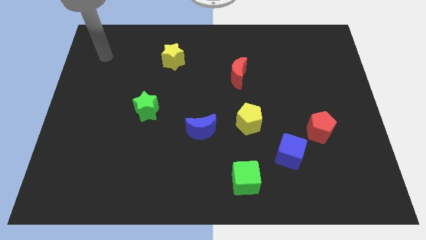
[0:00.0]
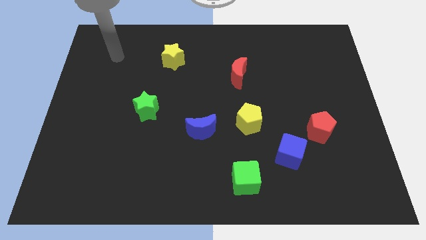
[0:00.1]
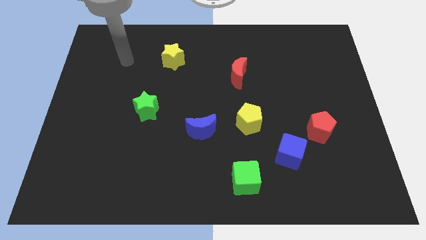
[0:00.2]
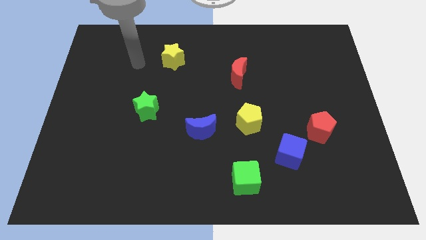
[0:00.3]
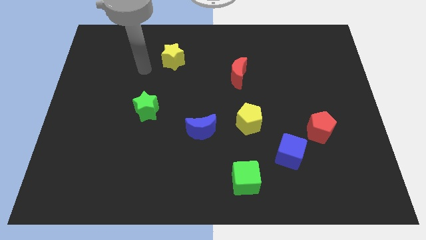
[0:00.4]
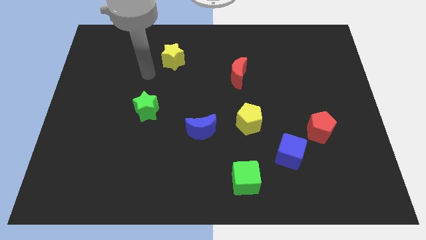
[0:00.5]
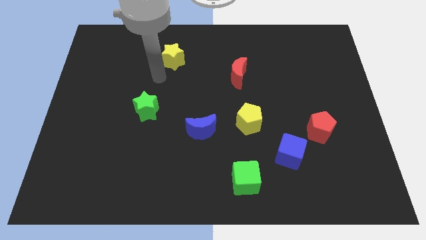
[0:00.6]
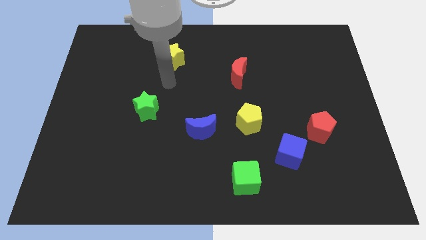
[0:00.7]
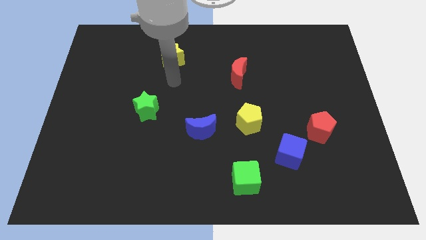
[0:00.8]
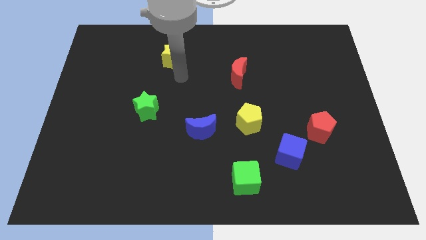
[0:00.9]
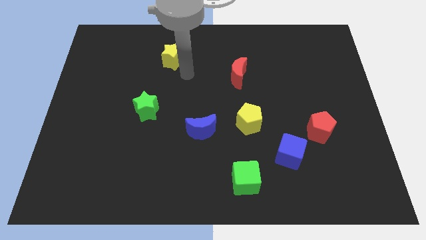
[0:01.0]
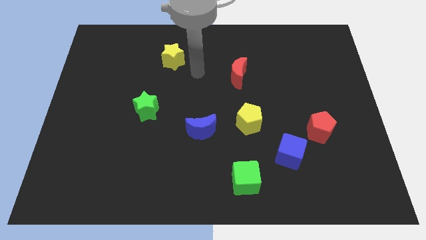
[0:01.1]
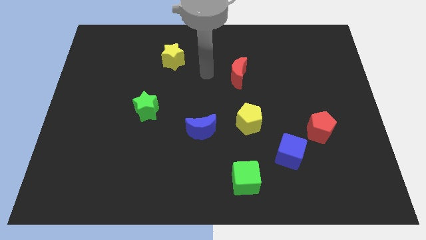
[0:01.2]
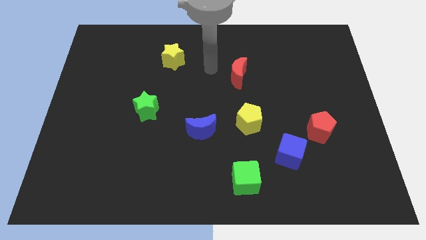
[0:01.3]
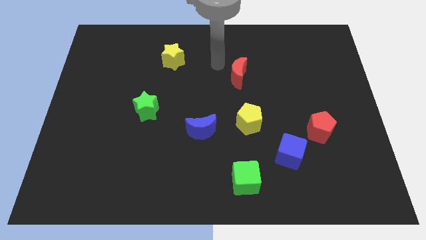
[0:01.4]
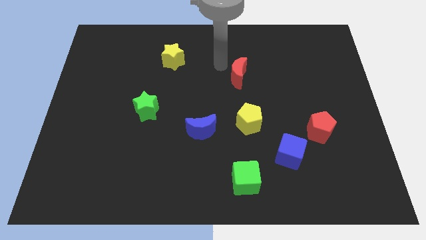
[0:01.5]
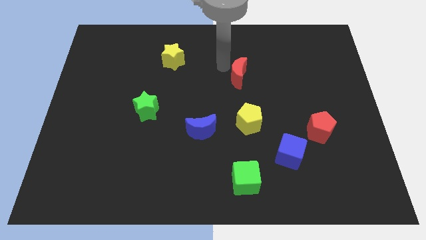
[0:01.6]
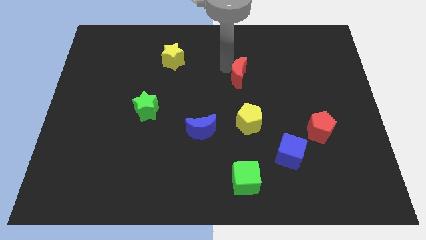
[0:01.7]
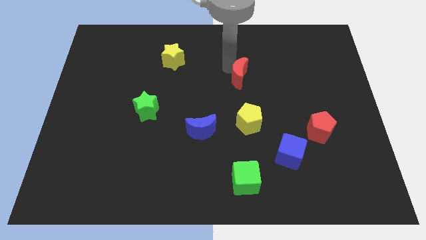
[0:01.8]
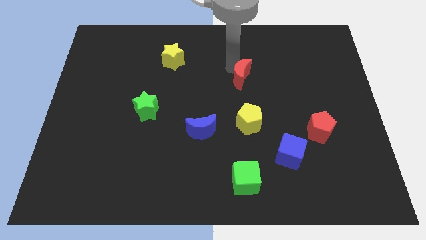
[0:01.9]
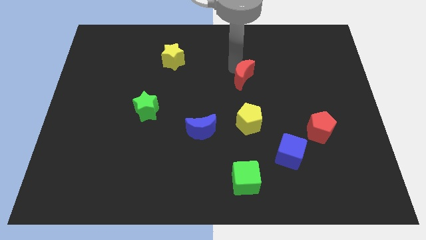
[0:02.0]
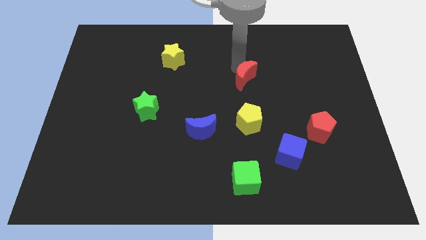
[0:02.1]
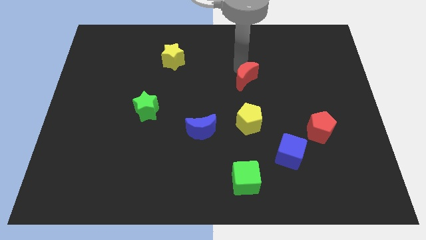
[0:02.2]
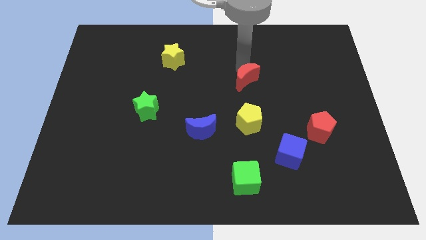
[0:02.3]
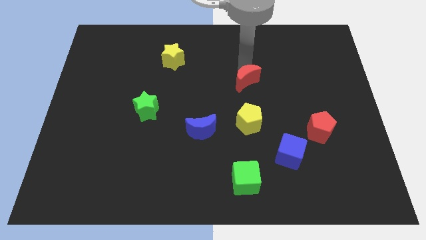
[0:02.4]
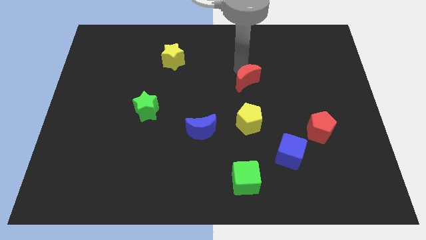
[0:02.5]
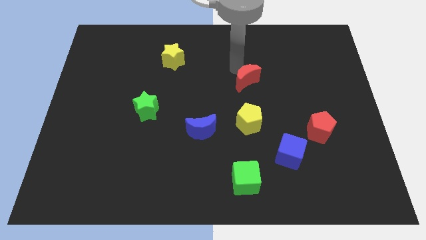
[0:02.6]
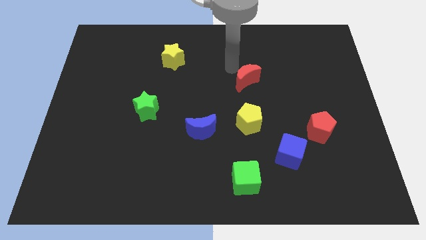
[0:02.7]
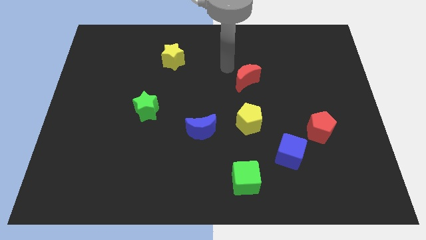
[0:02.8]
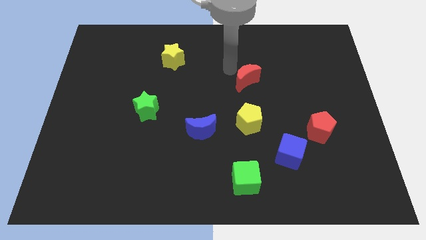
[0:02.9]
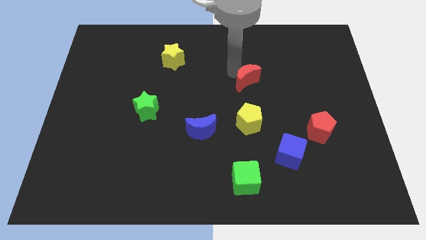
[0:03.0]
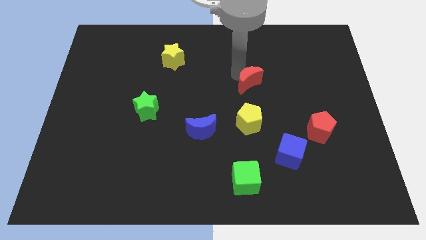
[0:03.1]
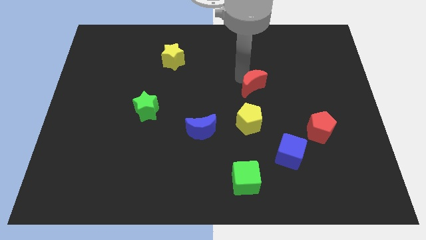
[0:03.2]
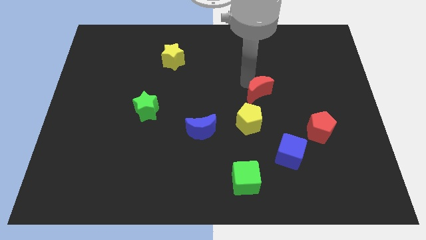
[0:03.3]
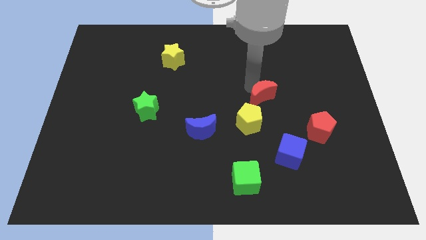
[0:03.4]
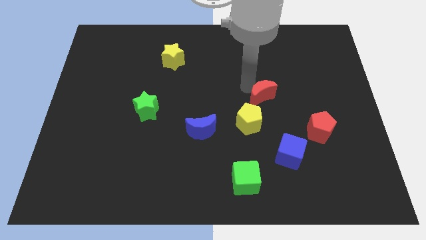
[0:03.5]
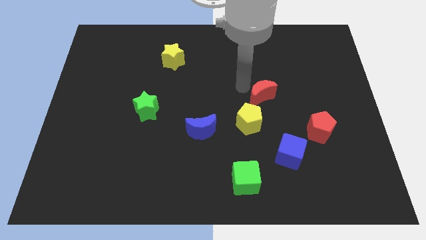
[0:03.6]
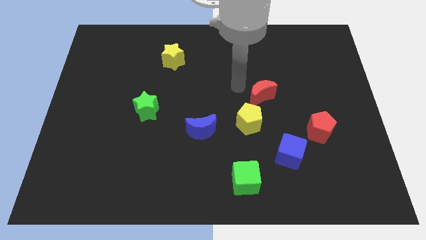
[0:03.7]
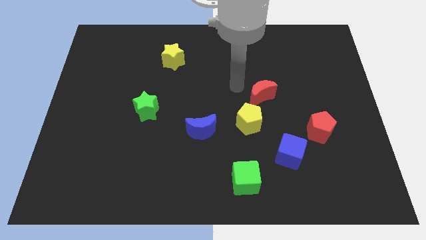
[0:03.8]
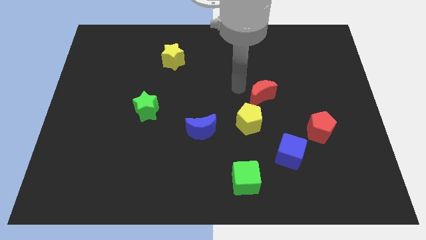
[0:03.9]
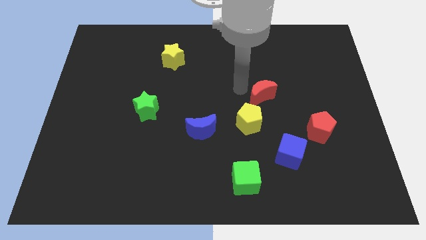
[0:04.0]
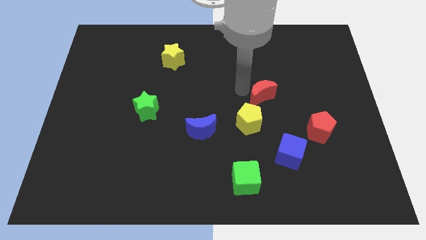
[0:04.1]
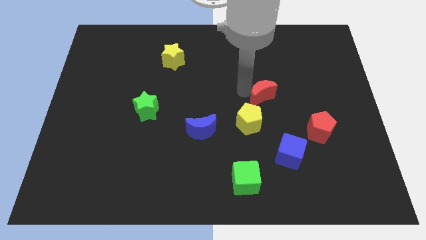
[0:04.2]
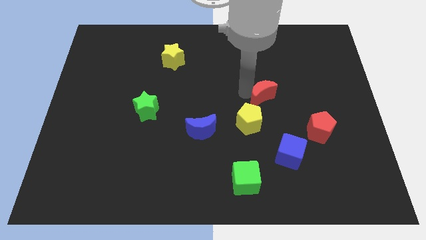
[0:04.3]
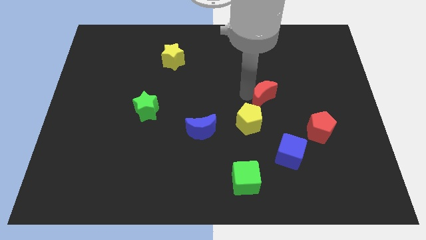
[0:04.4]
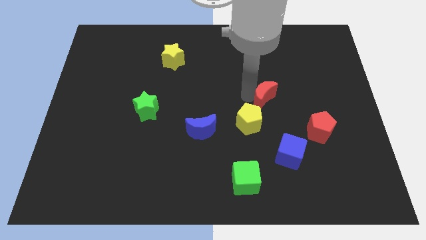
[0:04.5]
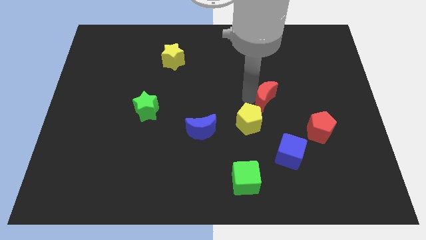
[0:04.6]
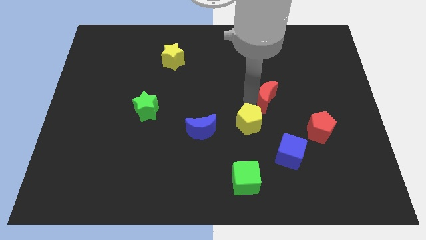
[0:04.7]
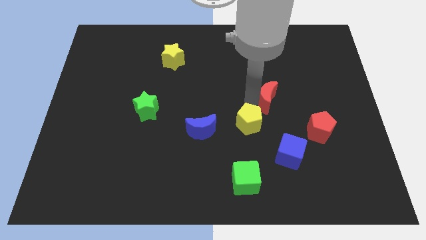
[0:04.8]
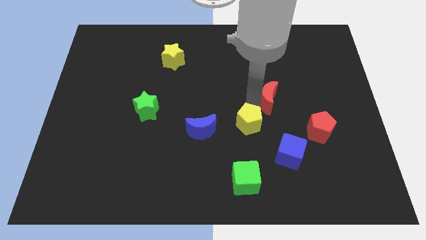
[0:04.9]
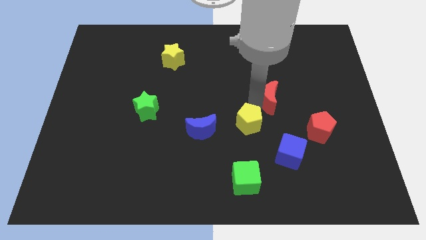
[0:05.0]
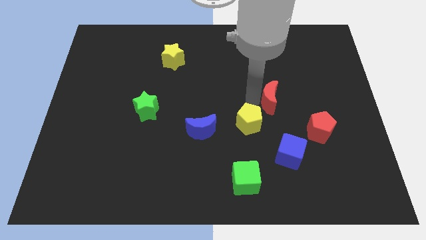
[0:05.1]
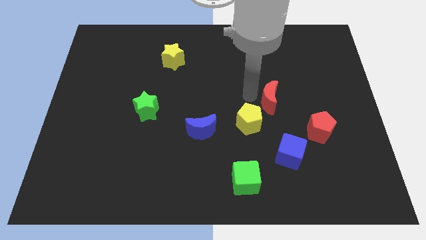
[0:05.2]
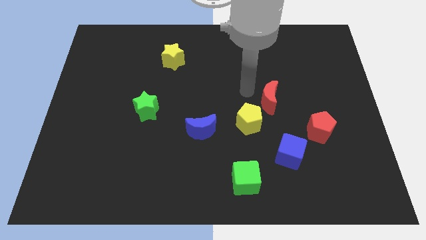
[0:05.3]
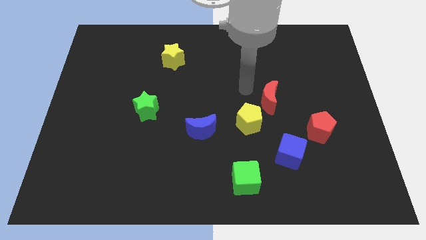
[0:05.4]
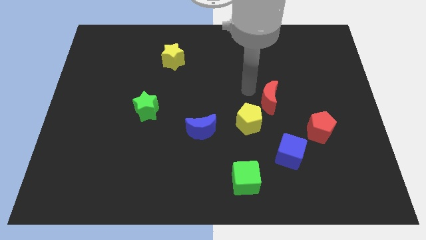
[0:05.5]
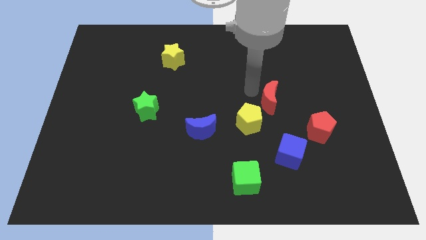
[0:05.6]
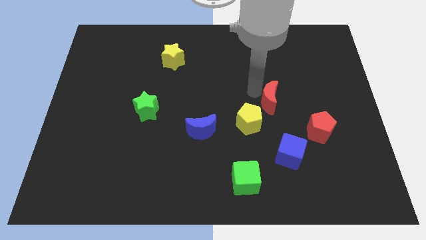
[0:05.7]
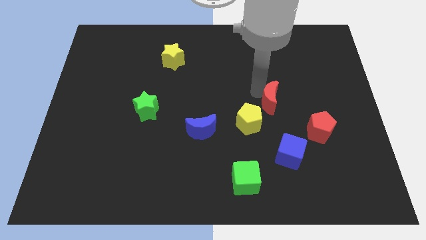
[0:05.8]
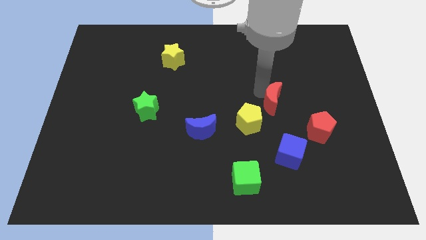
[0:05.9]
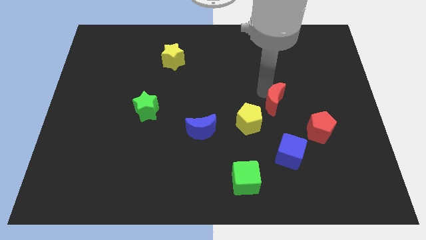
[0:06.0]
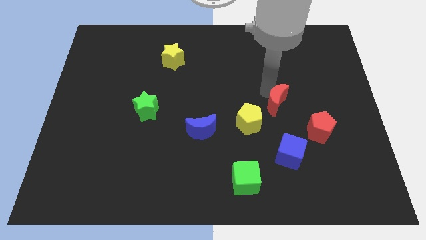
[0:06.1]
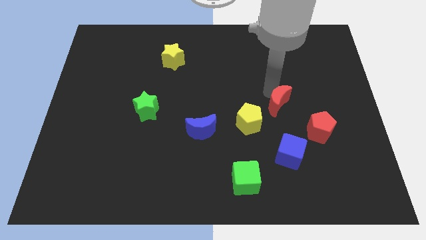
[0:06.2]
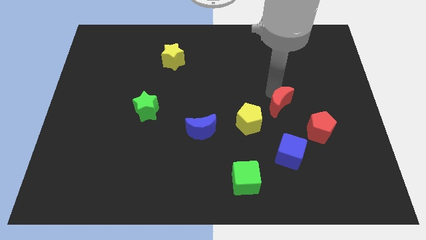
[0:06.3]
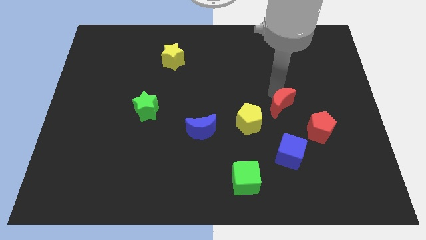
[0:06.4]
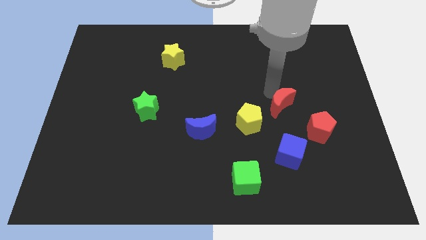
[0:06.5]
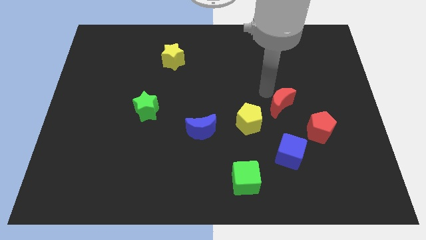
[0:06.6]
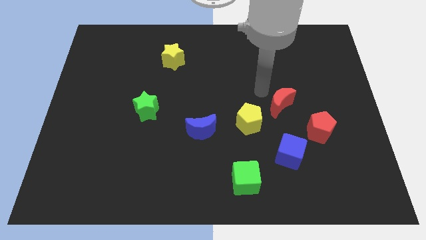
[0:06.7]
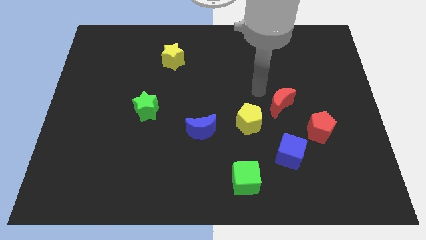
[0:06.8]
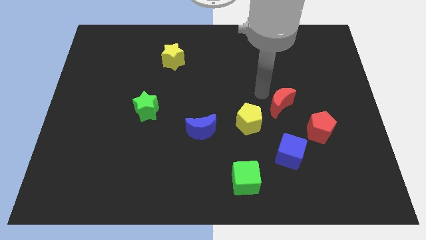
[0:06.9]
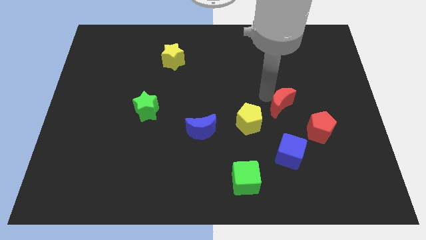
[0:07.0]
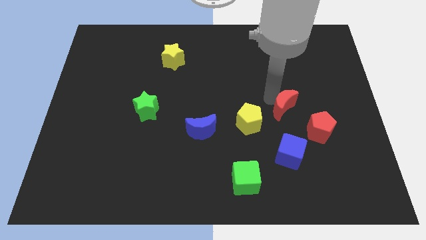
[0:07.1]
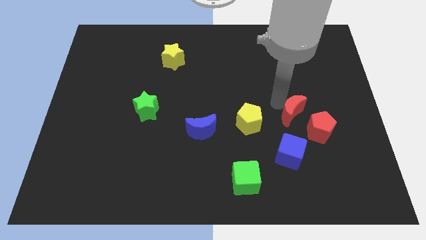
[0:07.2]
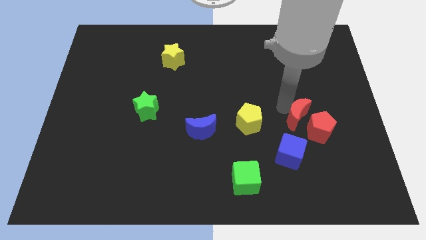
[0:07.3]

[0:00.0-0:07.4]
push the red moon to the red pentagon
